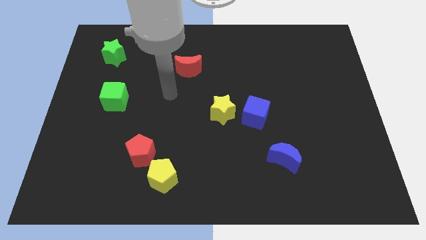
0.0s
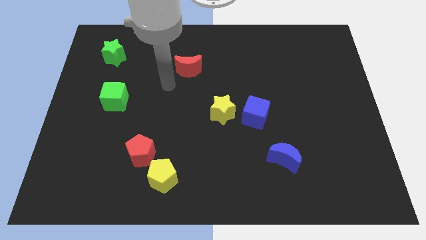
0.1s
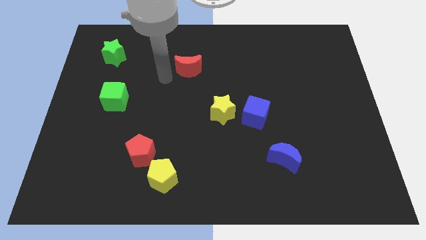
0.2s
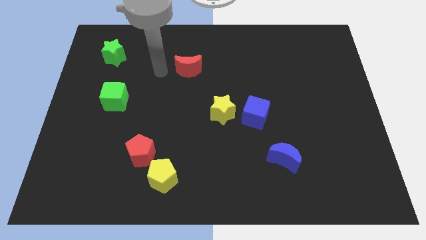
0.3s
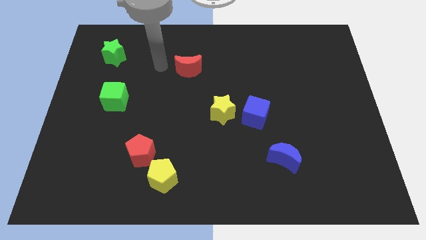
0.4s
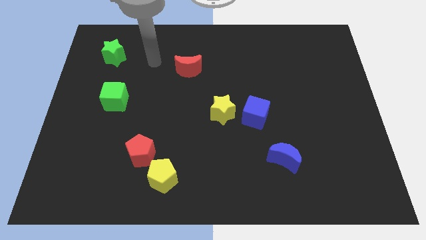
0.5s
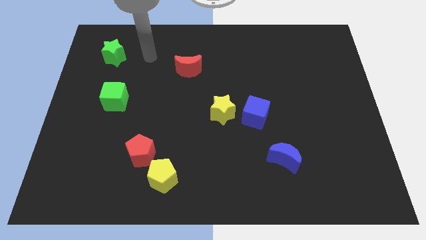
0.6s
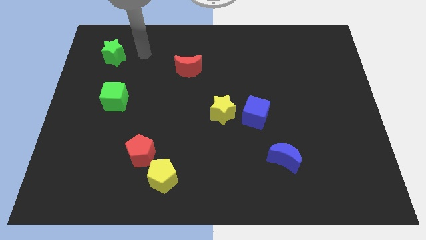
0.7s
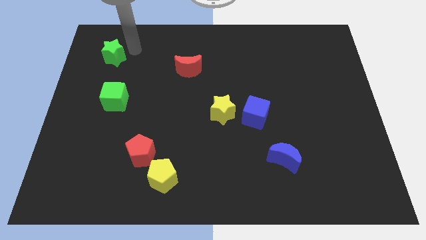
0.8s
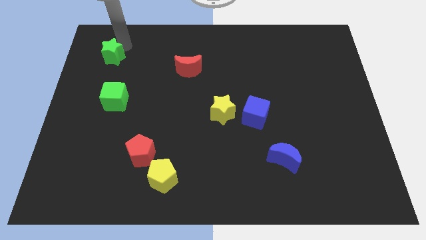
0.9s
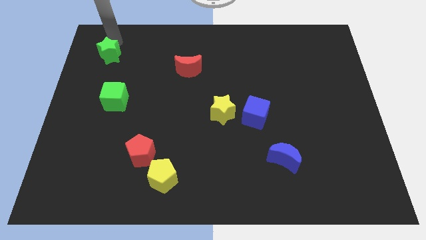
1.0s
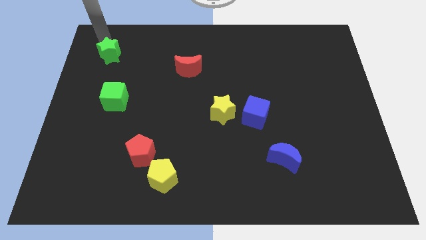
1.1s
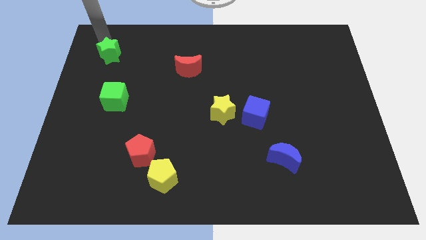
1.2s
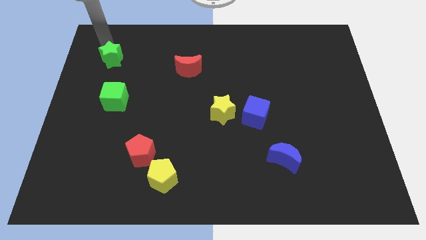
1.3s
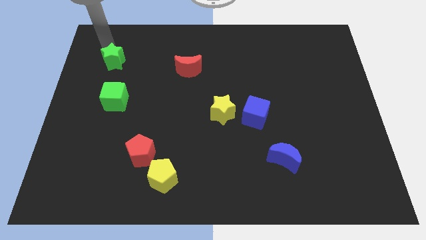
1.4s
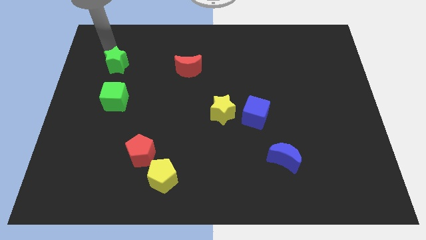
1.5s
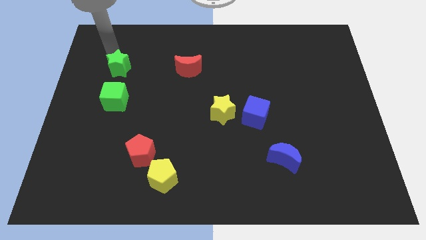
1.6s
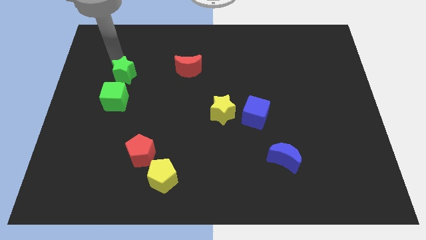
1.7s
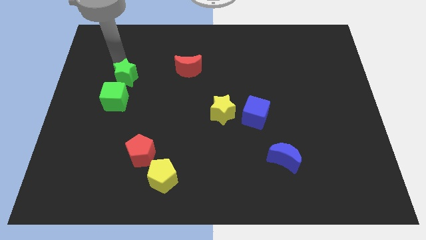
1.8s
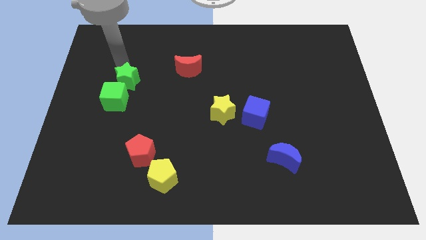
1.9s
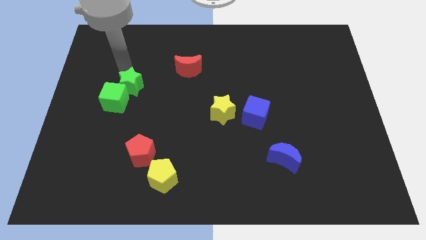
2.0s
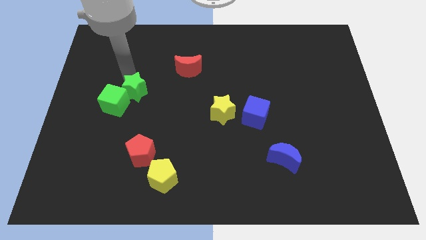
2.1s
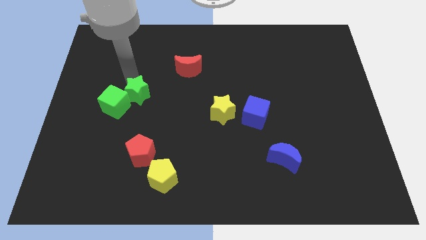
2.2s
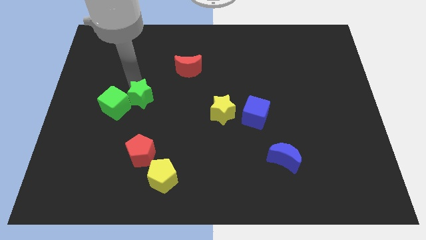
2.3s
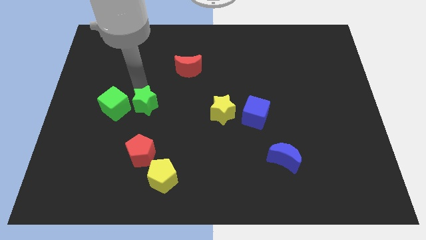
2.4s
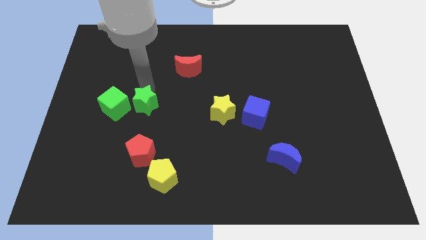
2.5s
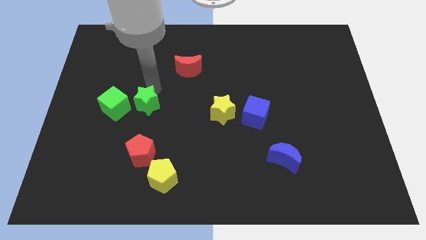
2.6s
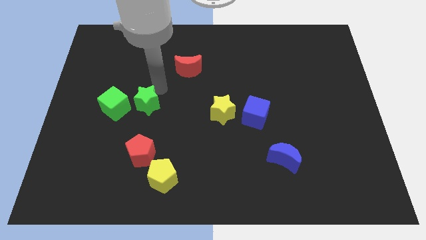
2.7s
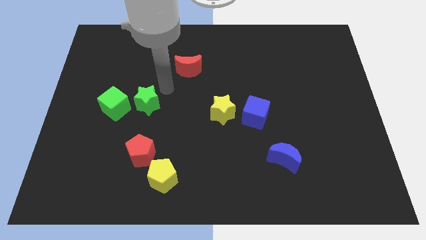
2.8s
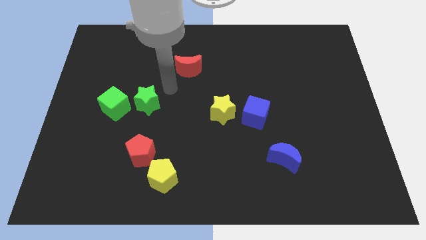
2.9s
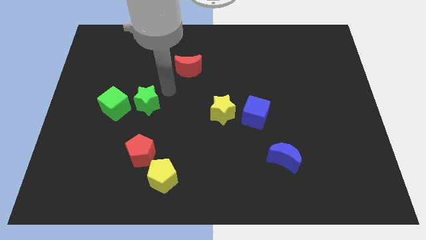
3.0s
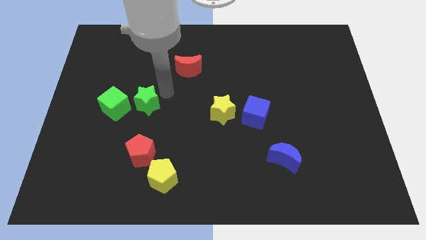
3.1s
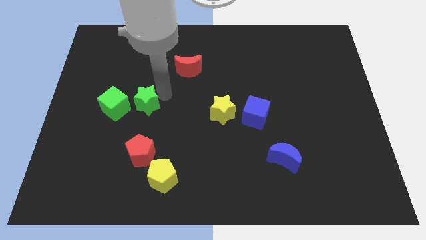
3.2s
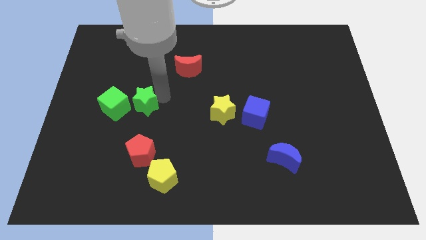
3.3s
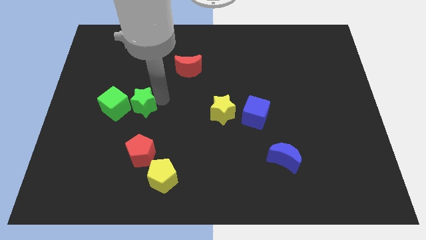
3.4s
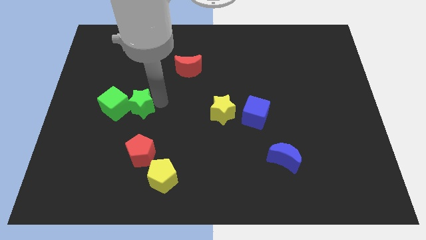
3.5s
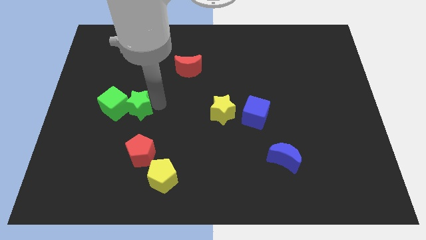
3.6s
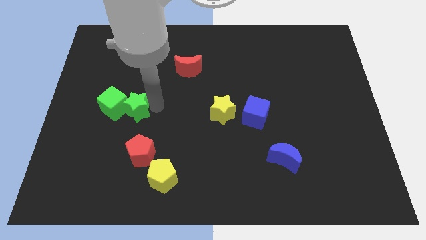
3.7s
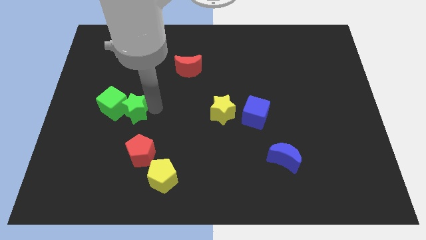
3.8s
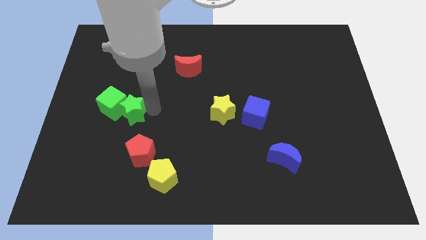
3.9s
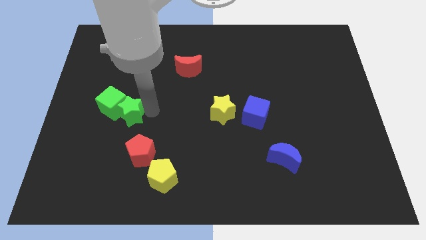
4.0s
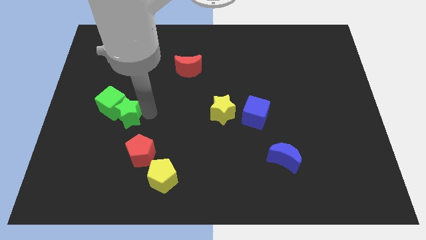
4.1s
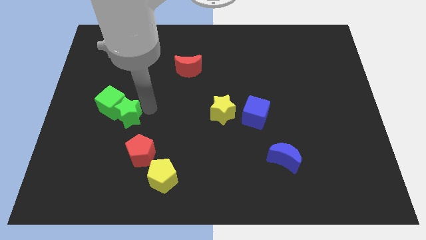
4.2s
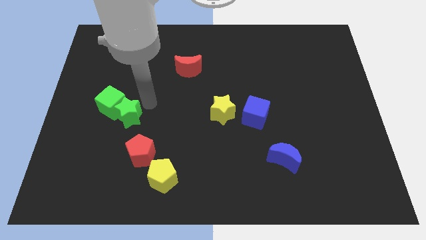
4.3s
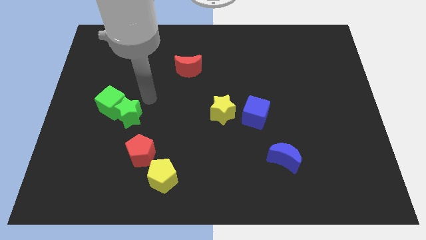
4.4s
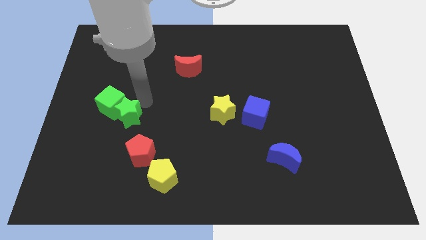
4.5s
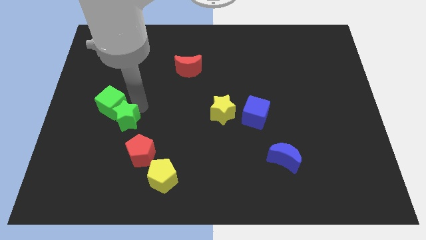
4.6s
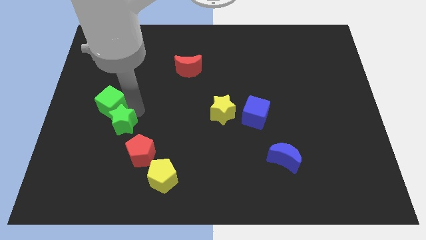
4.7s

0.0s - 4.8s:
move the green star down

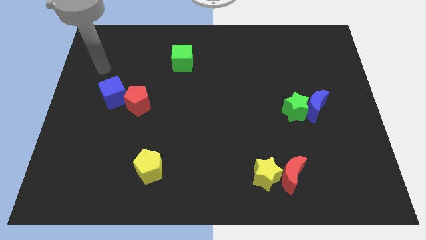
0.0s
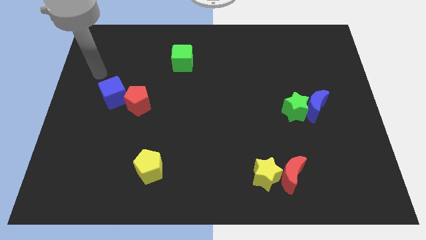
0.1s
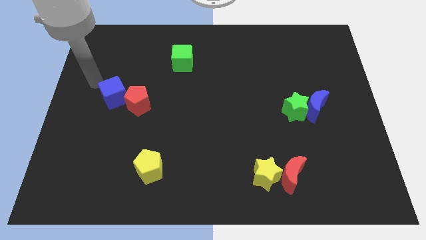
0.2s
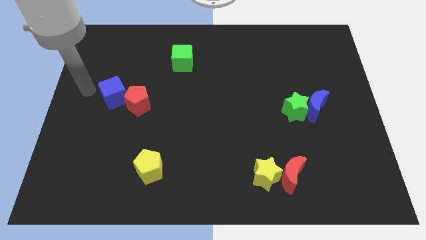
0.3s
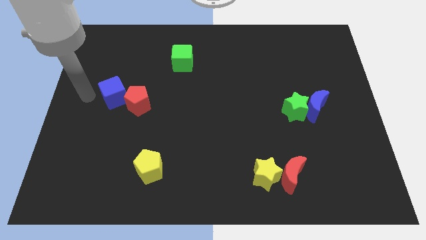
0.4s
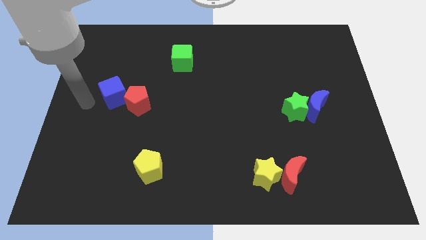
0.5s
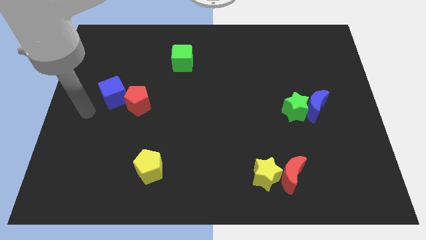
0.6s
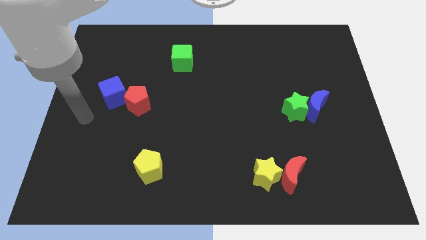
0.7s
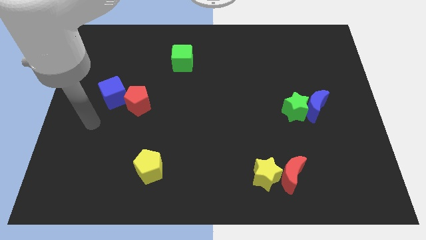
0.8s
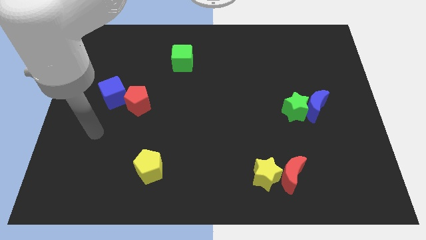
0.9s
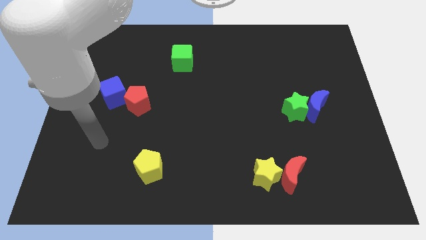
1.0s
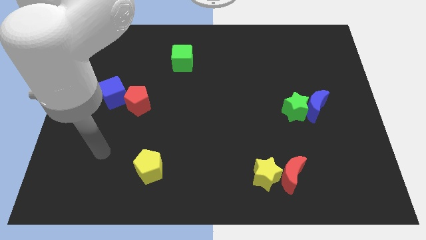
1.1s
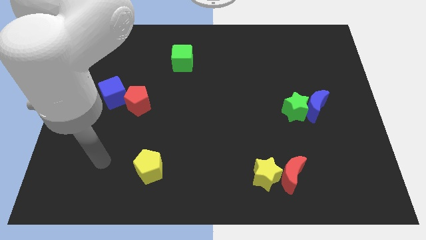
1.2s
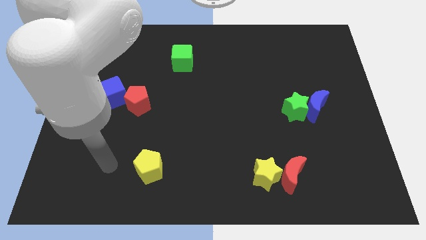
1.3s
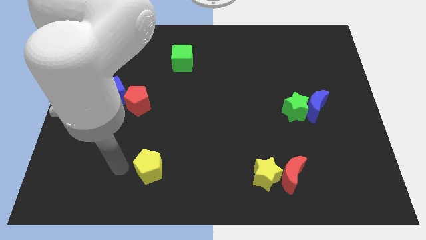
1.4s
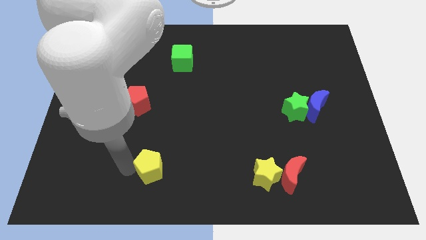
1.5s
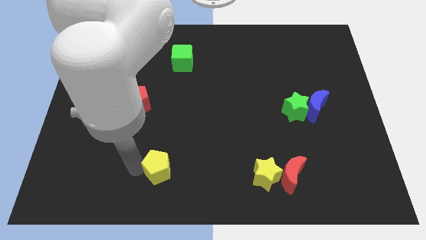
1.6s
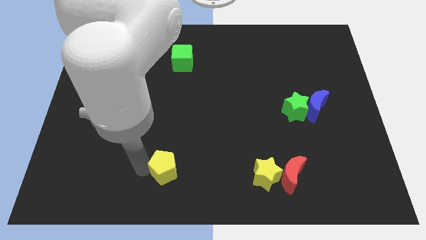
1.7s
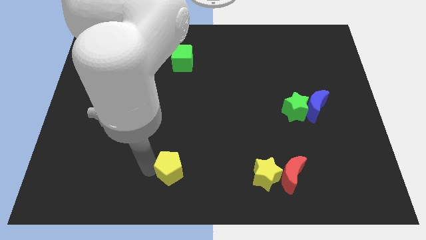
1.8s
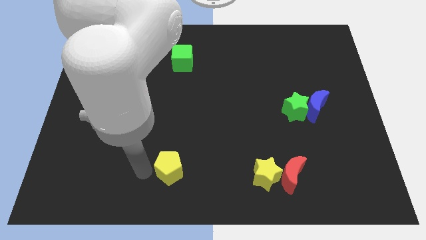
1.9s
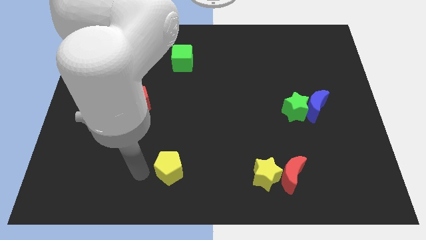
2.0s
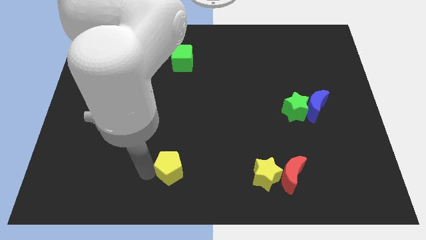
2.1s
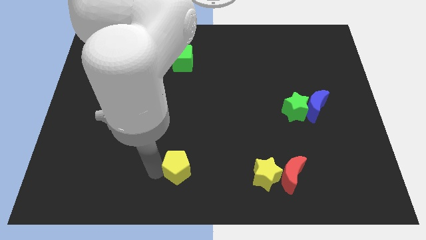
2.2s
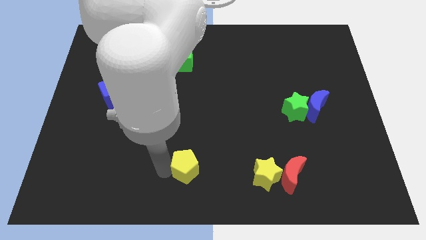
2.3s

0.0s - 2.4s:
slightly move the yellow pentagon right

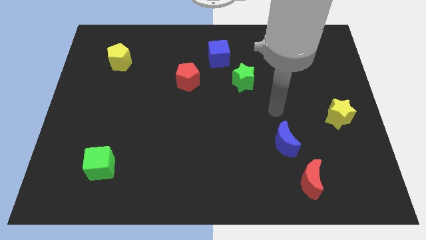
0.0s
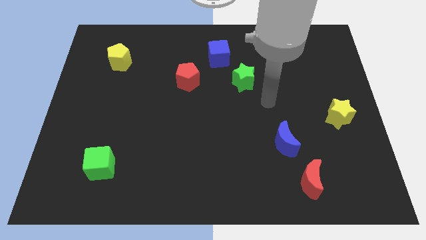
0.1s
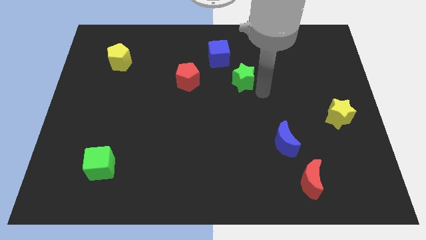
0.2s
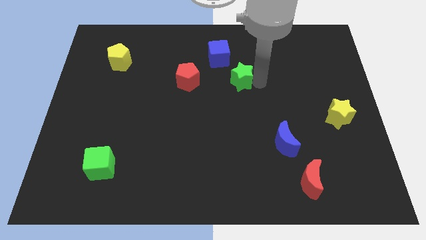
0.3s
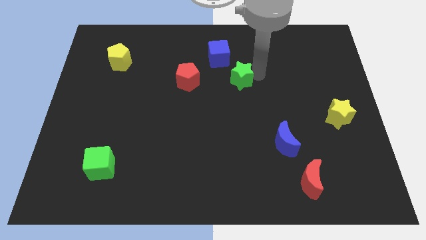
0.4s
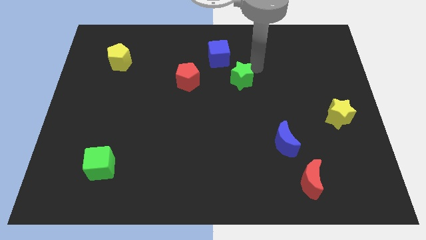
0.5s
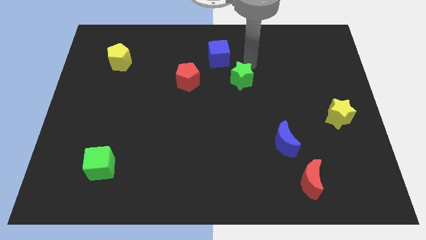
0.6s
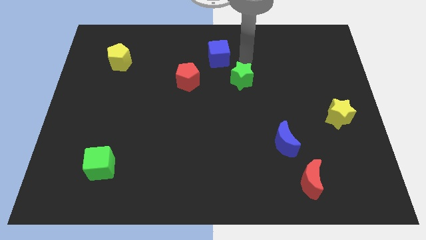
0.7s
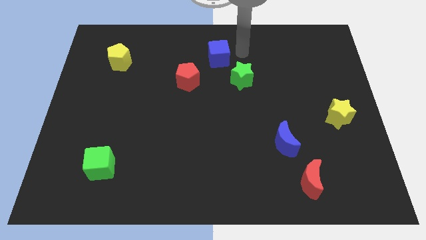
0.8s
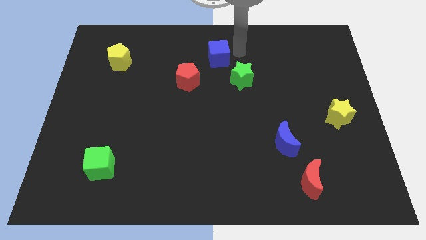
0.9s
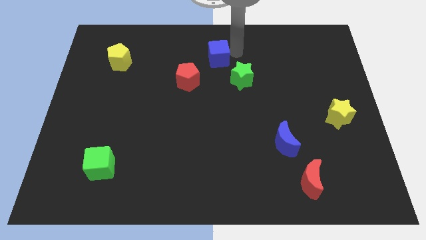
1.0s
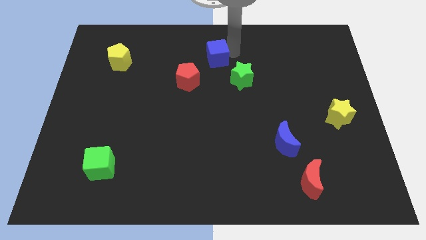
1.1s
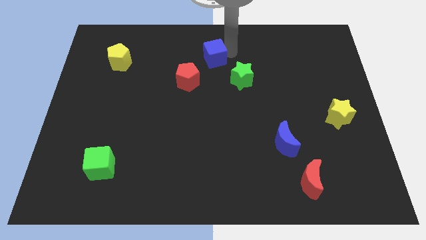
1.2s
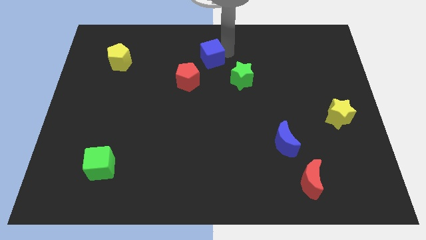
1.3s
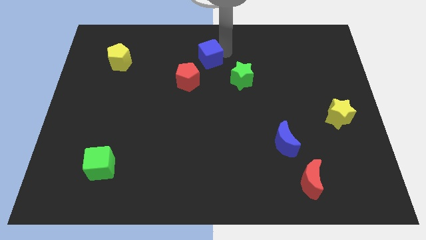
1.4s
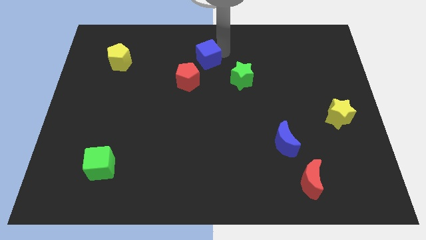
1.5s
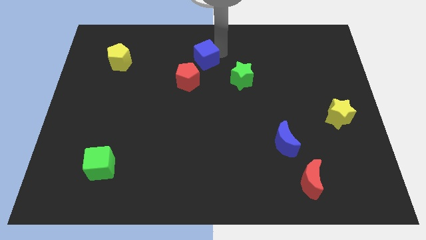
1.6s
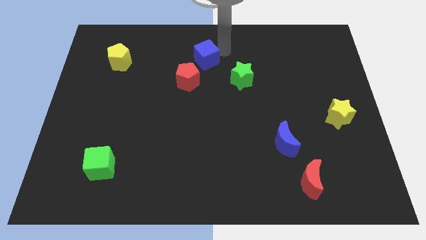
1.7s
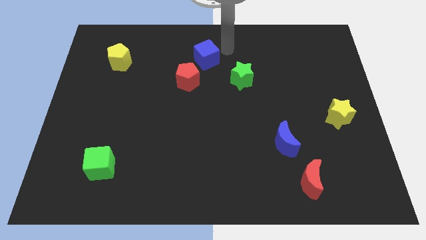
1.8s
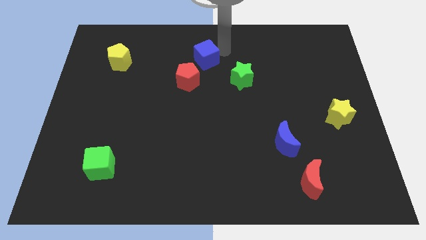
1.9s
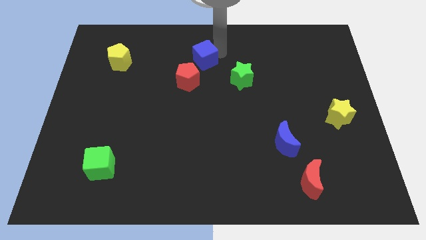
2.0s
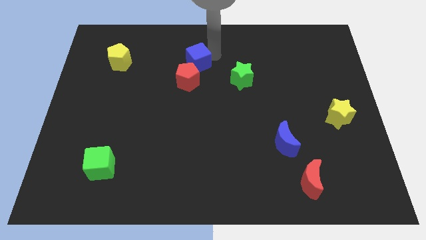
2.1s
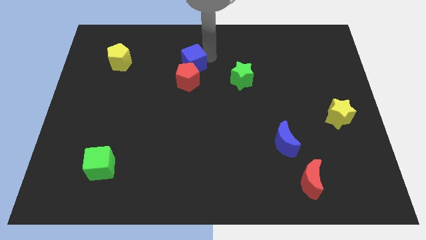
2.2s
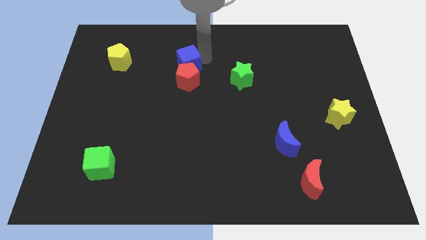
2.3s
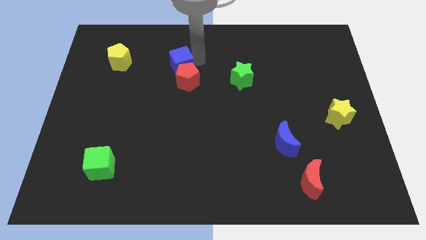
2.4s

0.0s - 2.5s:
slide the blue cube diagonally downwards and left a little bit
